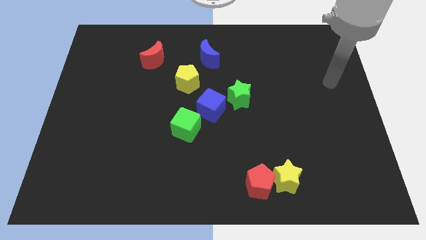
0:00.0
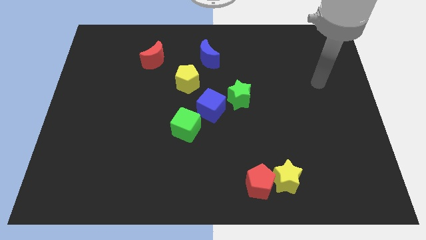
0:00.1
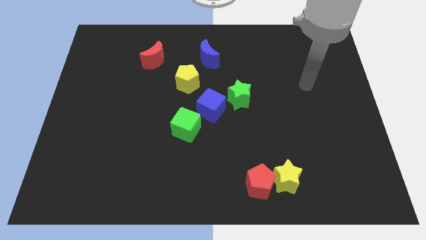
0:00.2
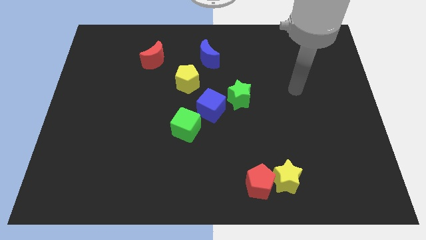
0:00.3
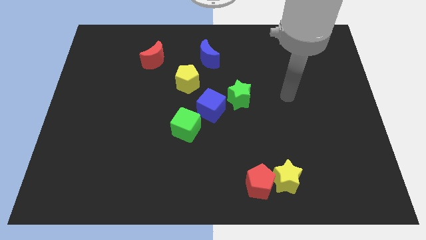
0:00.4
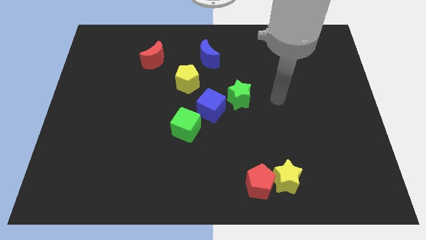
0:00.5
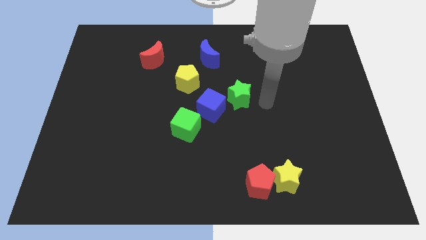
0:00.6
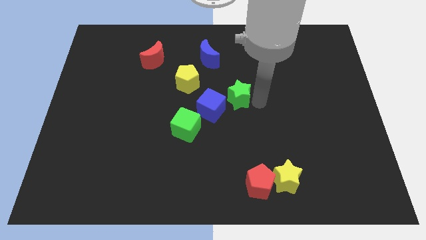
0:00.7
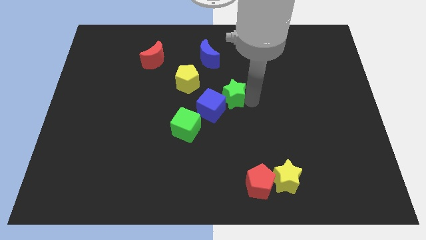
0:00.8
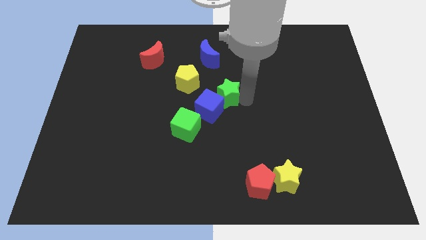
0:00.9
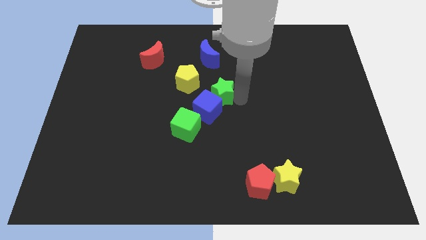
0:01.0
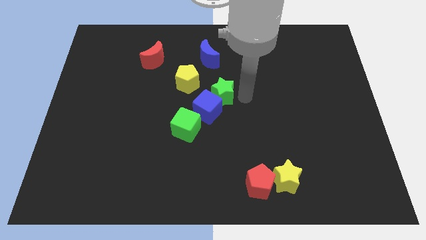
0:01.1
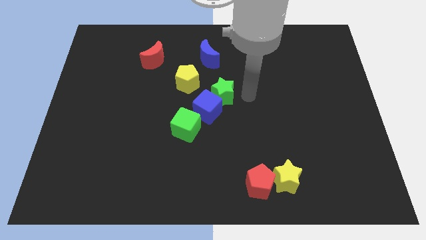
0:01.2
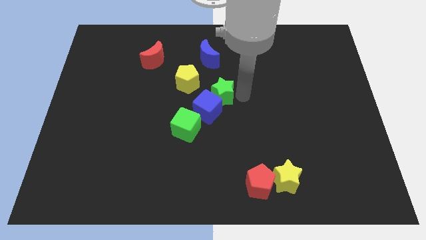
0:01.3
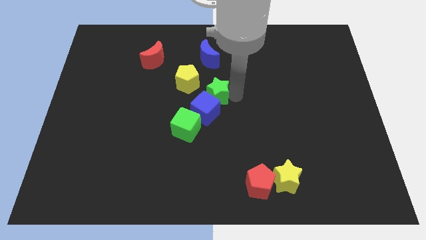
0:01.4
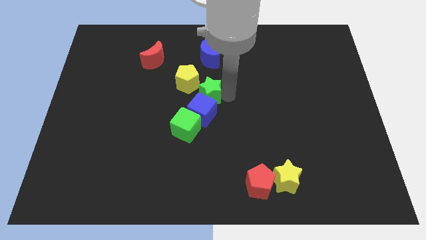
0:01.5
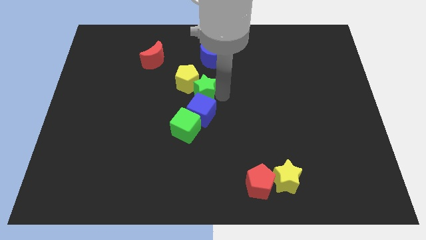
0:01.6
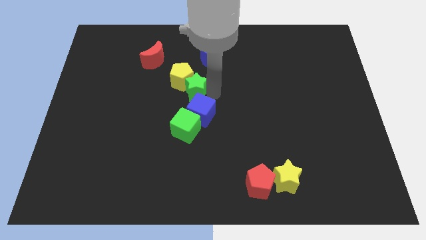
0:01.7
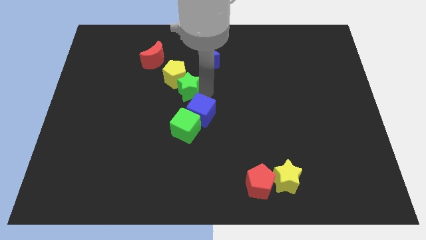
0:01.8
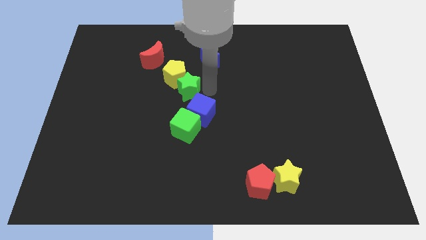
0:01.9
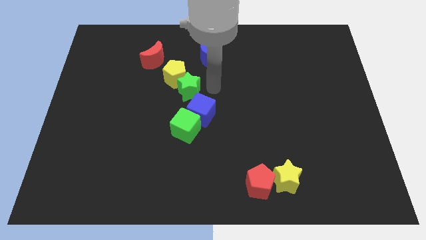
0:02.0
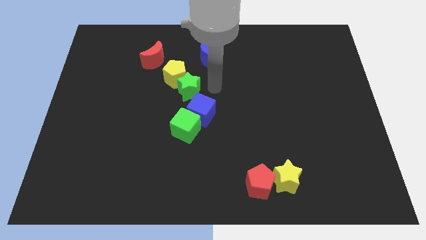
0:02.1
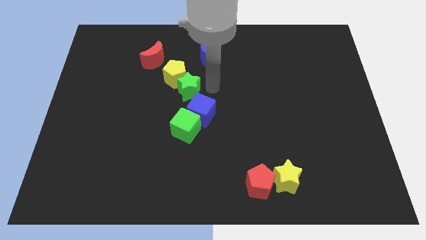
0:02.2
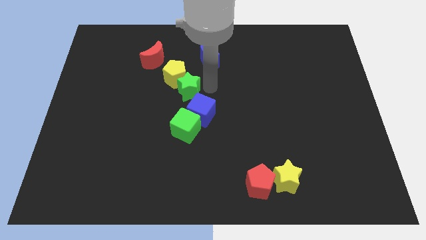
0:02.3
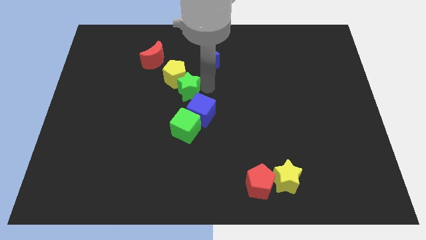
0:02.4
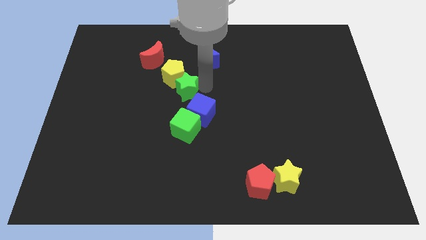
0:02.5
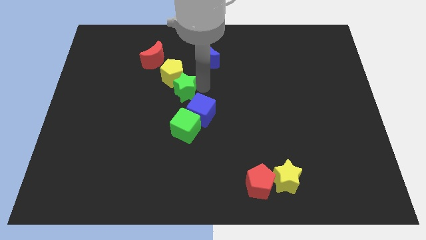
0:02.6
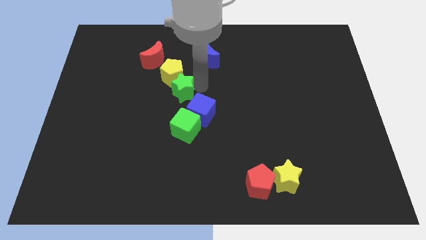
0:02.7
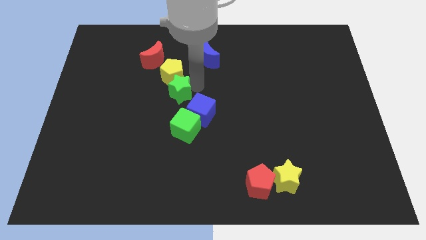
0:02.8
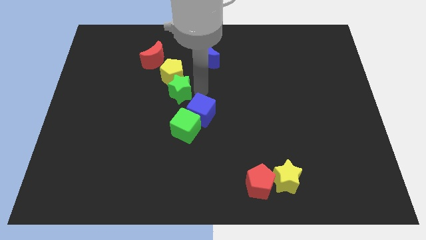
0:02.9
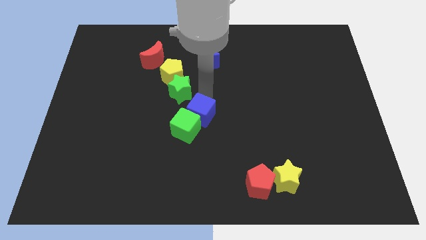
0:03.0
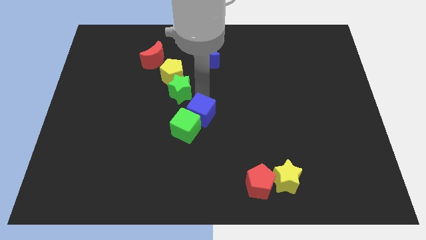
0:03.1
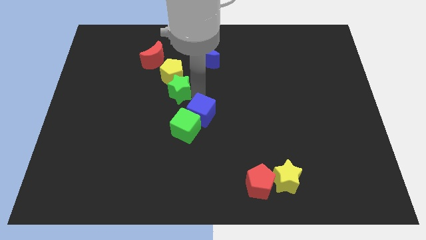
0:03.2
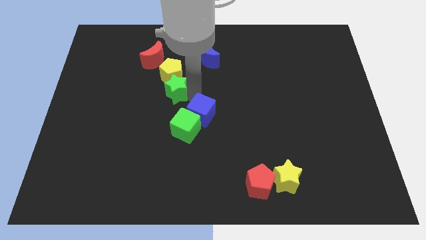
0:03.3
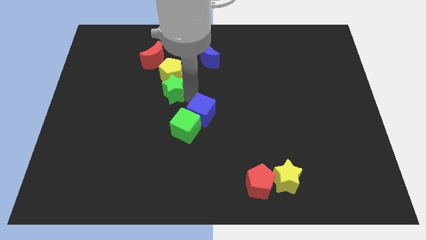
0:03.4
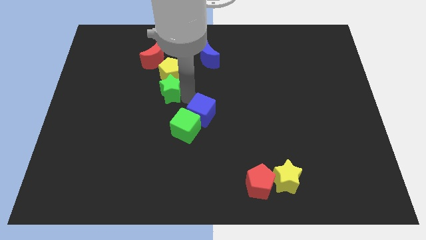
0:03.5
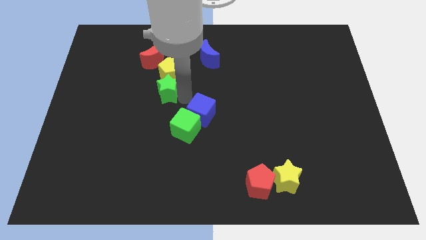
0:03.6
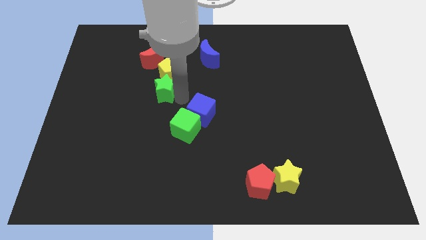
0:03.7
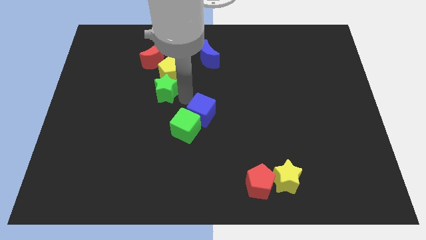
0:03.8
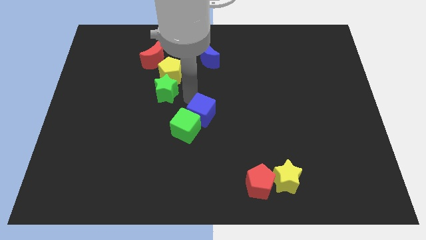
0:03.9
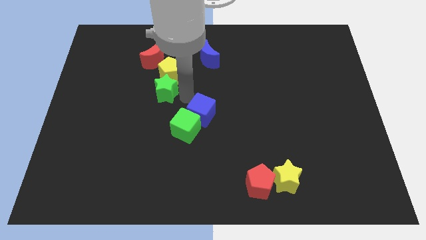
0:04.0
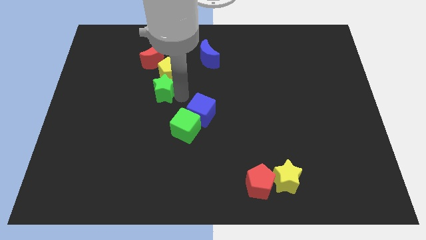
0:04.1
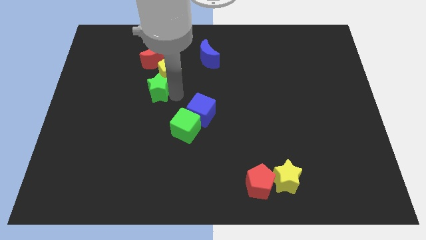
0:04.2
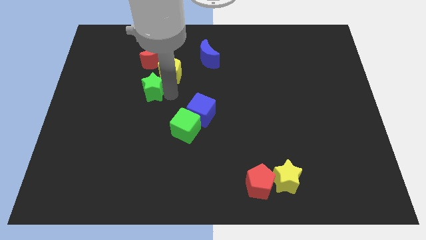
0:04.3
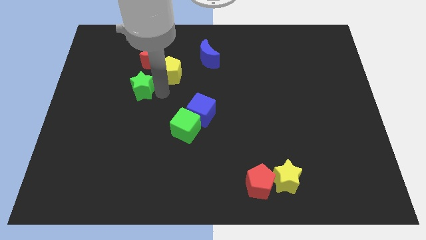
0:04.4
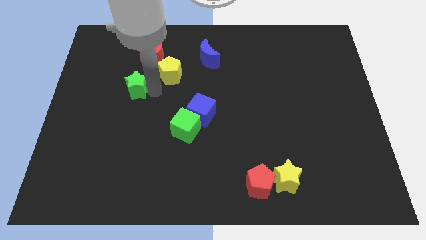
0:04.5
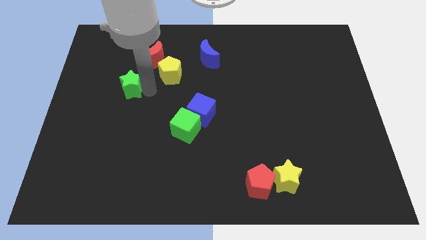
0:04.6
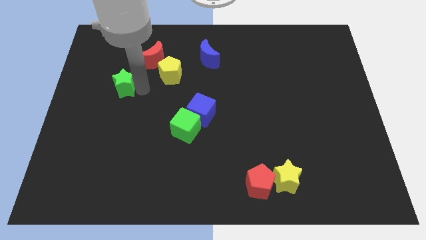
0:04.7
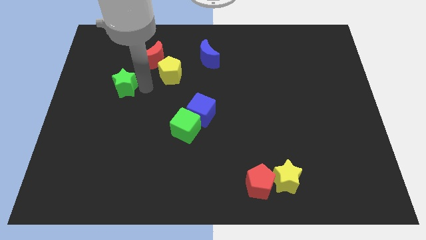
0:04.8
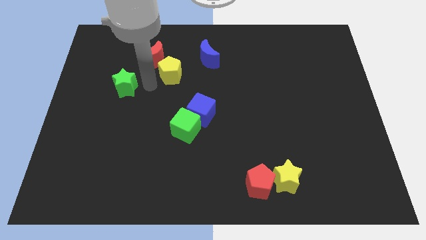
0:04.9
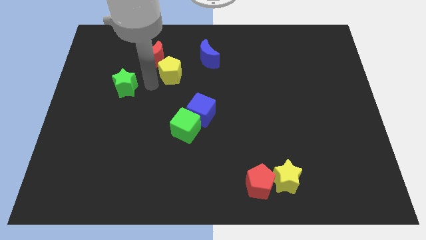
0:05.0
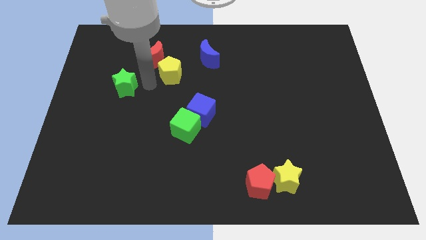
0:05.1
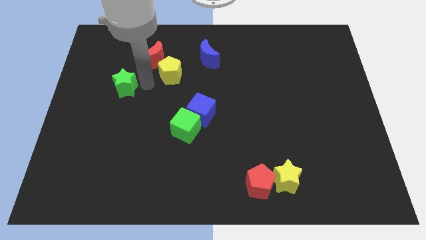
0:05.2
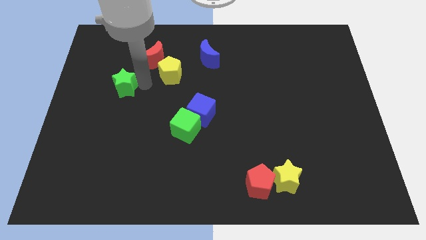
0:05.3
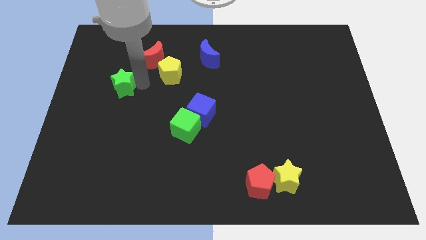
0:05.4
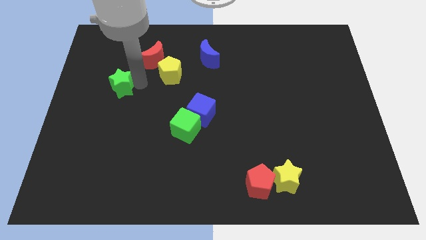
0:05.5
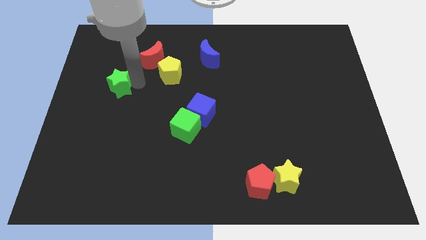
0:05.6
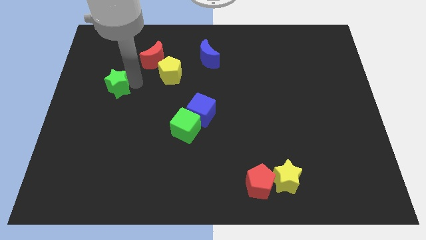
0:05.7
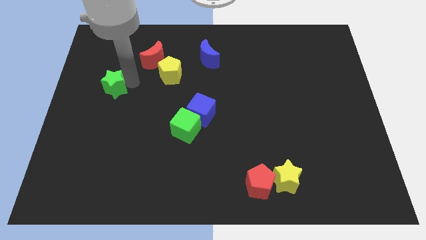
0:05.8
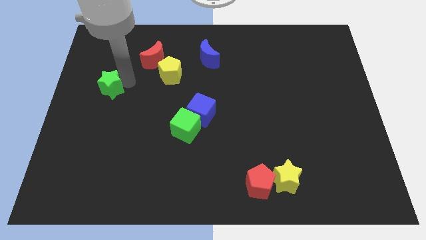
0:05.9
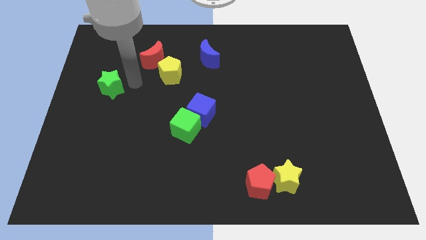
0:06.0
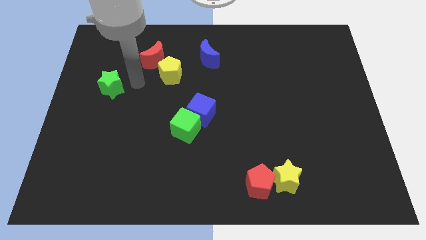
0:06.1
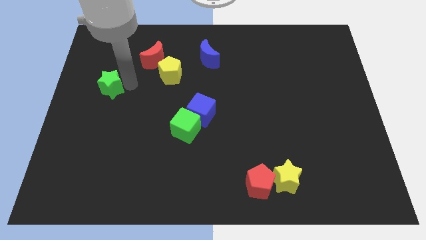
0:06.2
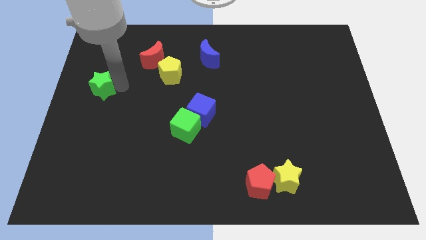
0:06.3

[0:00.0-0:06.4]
move the green star to the left side
